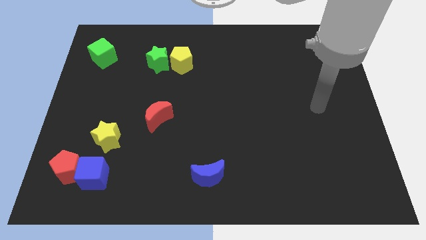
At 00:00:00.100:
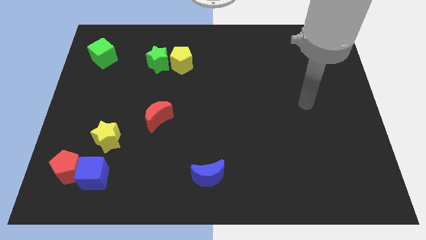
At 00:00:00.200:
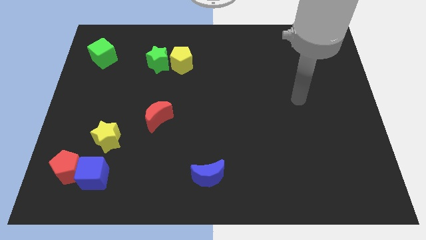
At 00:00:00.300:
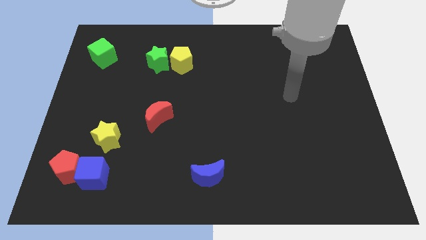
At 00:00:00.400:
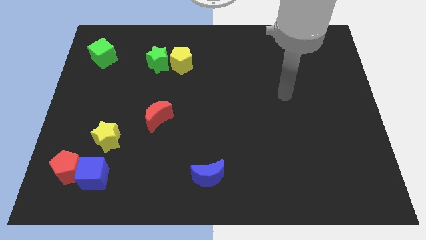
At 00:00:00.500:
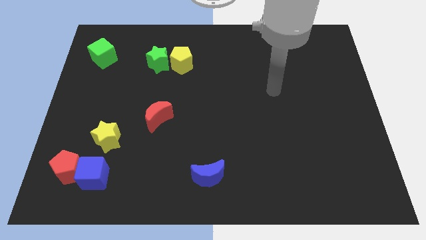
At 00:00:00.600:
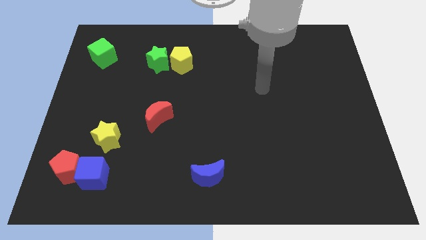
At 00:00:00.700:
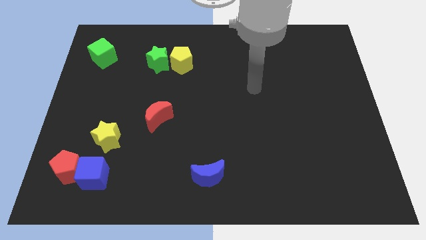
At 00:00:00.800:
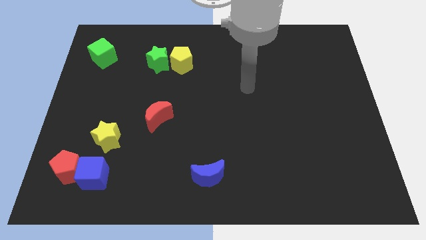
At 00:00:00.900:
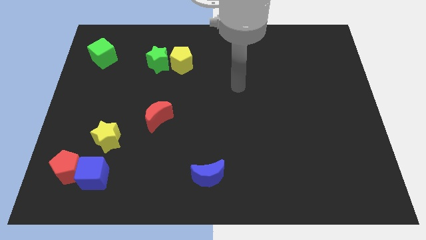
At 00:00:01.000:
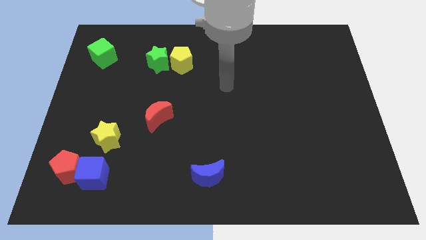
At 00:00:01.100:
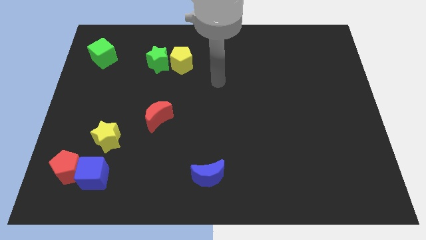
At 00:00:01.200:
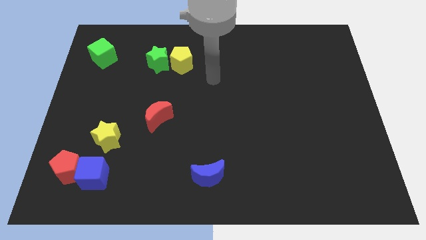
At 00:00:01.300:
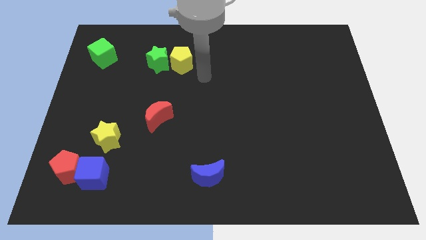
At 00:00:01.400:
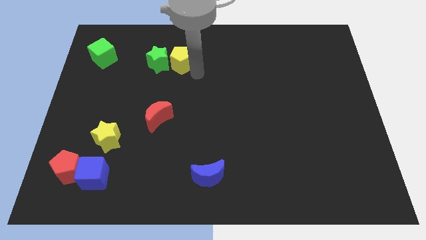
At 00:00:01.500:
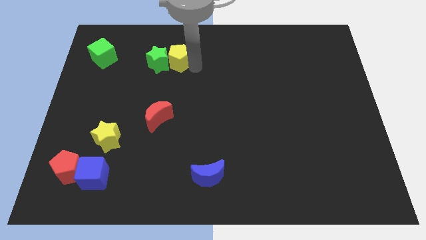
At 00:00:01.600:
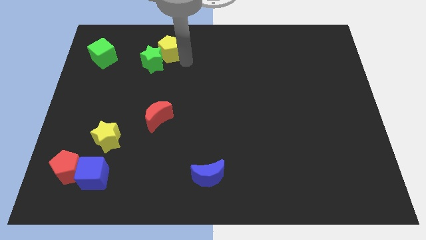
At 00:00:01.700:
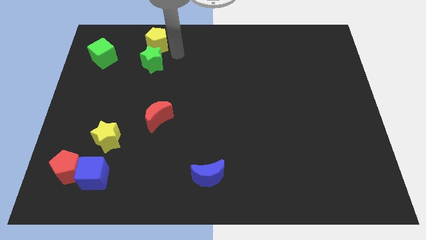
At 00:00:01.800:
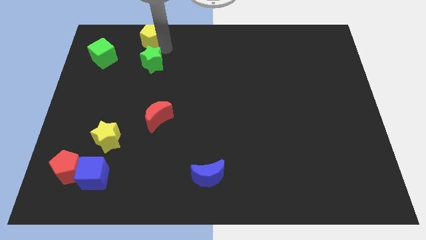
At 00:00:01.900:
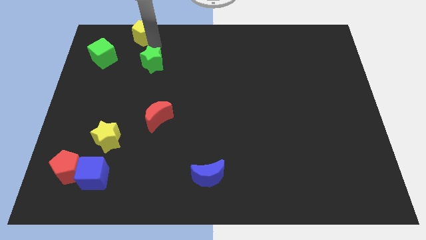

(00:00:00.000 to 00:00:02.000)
move the green star away from the yellow pentagon

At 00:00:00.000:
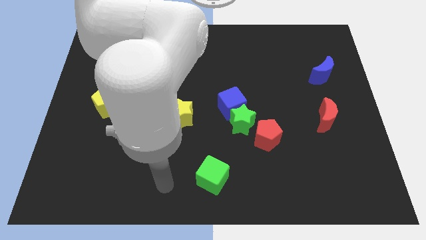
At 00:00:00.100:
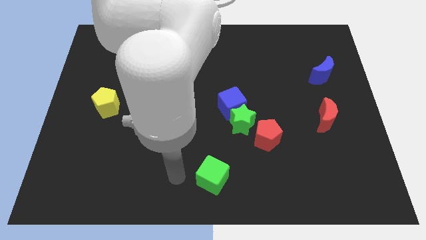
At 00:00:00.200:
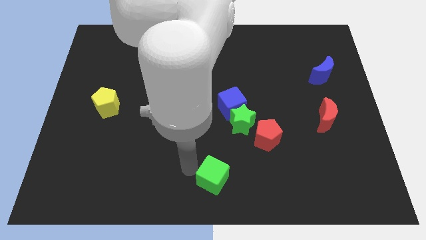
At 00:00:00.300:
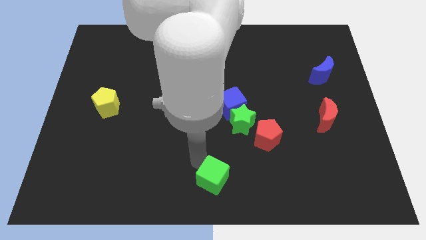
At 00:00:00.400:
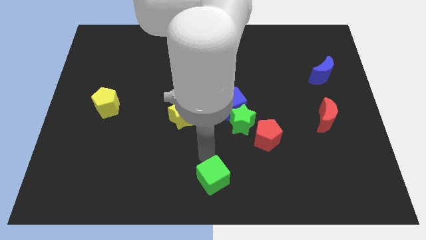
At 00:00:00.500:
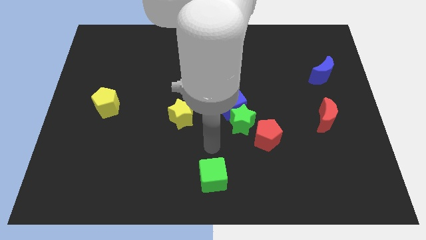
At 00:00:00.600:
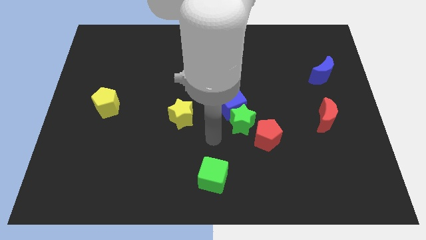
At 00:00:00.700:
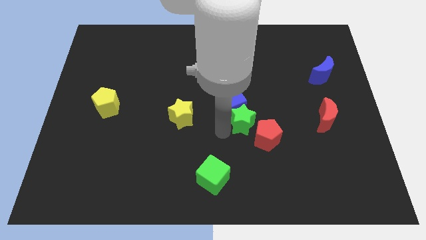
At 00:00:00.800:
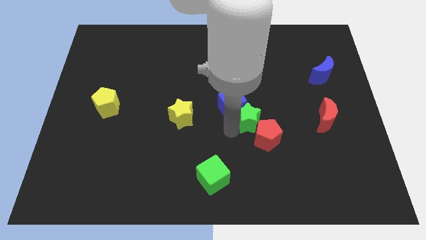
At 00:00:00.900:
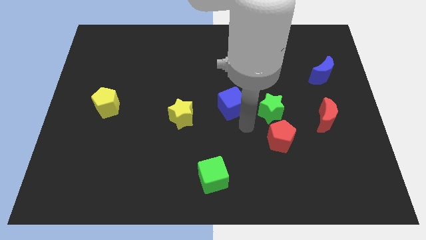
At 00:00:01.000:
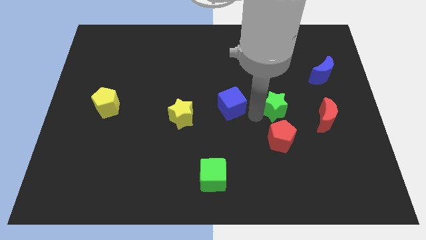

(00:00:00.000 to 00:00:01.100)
pull the blue cube apart from the green star

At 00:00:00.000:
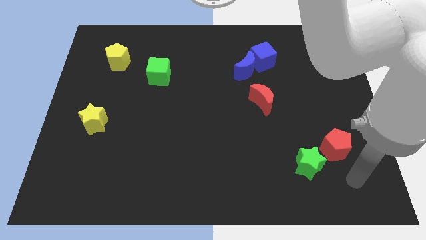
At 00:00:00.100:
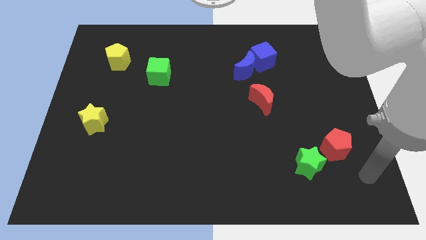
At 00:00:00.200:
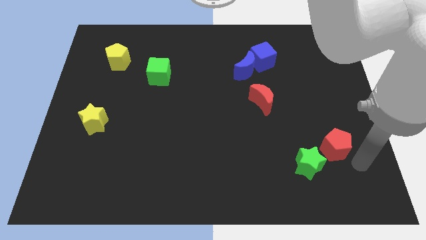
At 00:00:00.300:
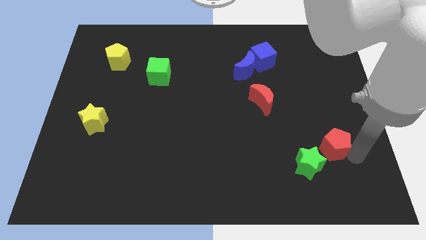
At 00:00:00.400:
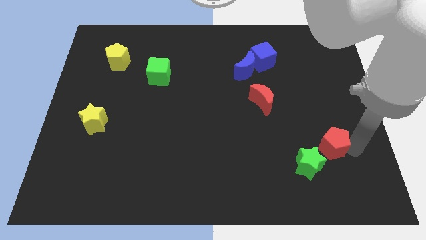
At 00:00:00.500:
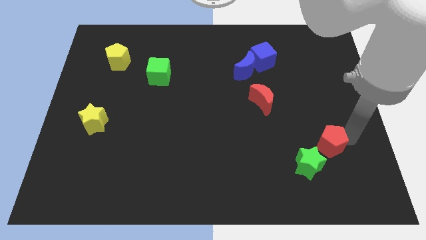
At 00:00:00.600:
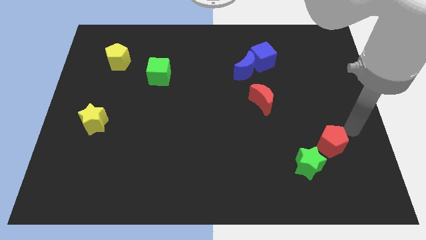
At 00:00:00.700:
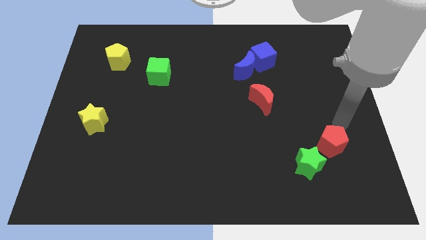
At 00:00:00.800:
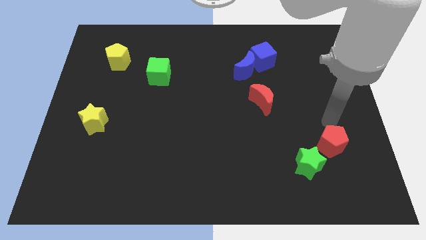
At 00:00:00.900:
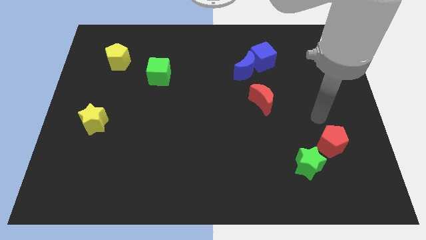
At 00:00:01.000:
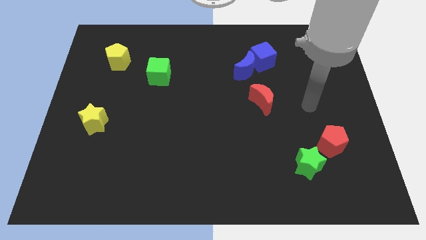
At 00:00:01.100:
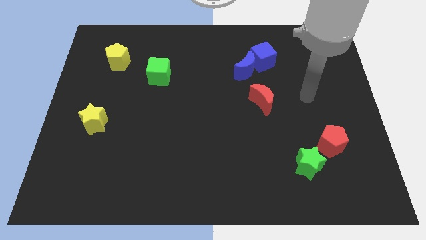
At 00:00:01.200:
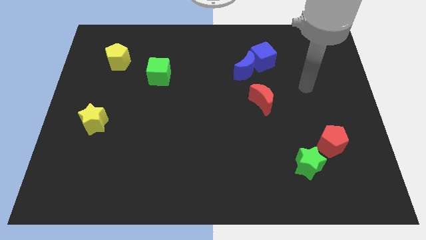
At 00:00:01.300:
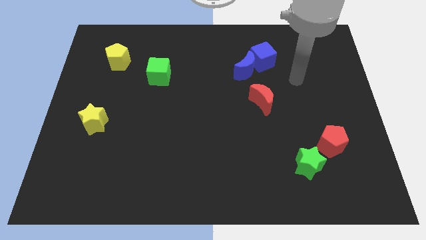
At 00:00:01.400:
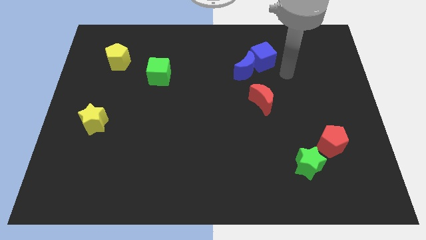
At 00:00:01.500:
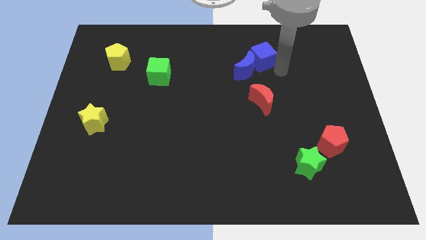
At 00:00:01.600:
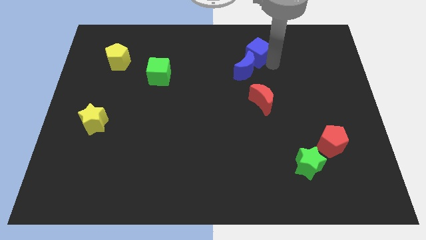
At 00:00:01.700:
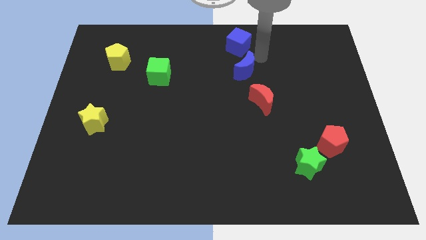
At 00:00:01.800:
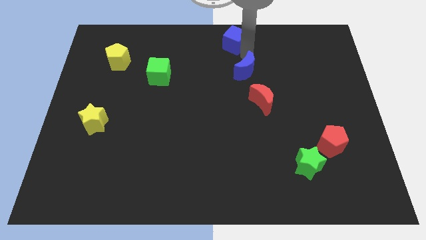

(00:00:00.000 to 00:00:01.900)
move the blue moon away from the blue cube

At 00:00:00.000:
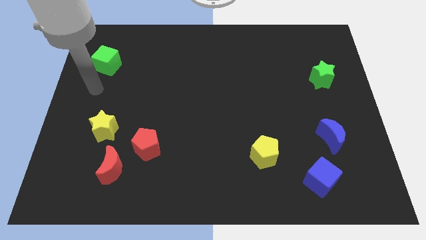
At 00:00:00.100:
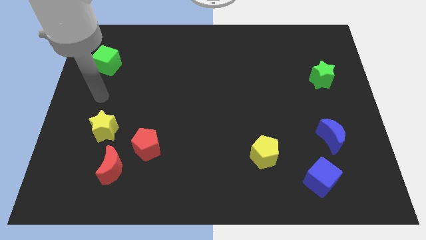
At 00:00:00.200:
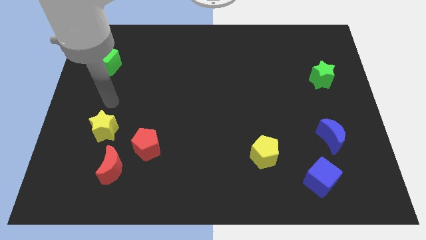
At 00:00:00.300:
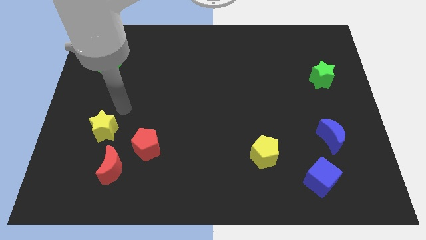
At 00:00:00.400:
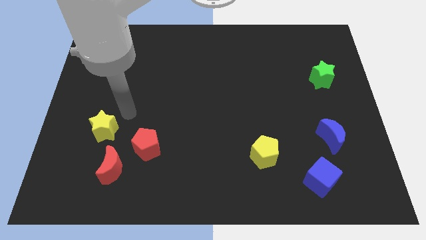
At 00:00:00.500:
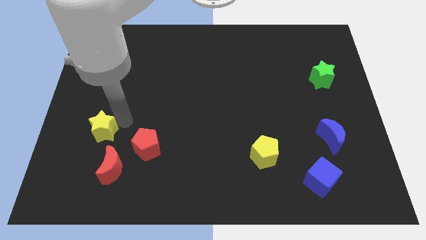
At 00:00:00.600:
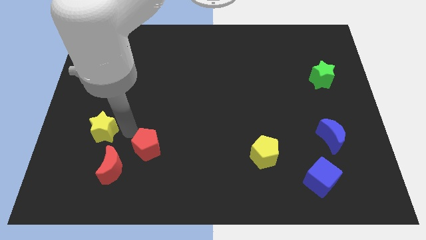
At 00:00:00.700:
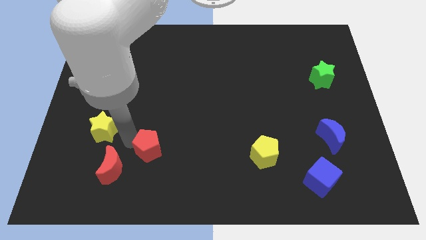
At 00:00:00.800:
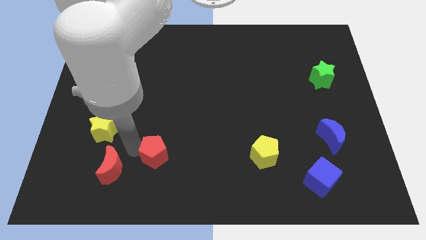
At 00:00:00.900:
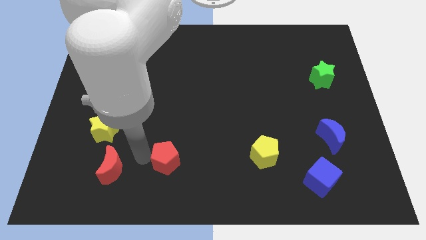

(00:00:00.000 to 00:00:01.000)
separate the red moon from the red pentagon

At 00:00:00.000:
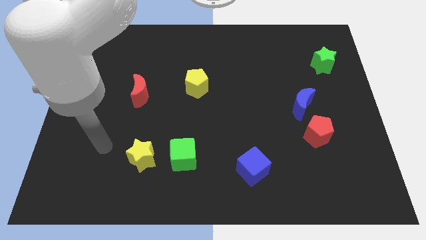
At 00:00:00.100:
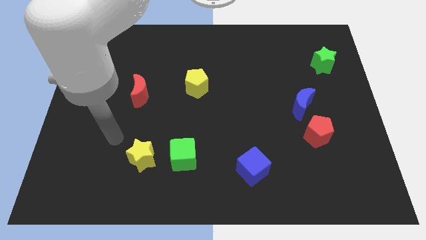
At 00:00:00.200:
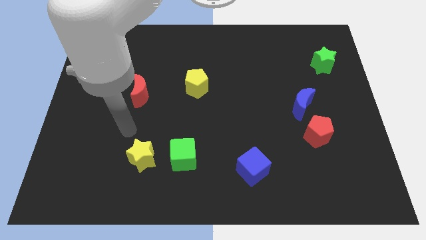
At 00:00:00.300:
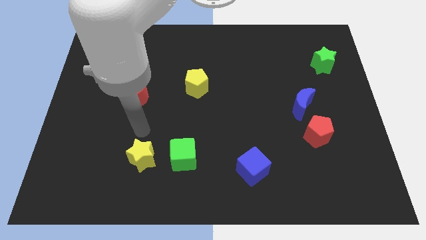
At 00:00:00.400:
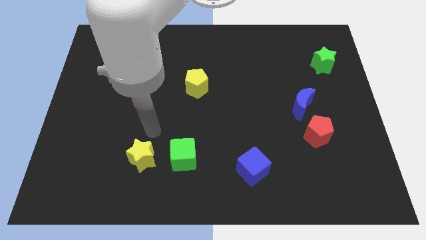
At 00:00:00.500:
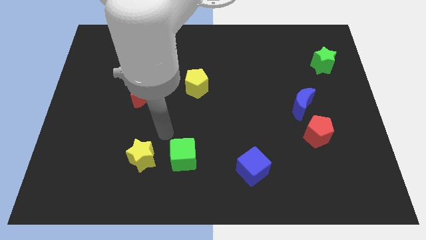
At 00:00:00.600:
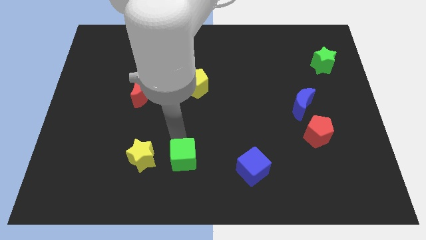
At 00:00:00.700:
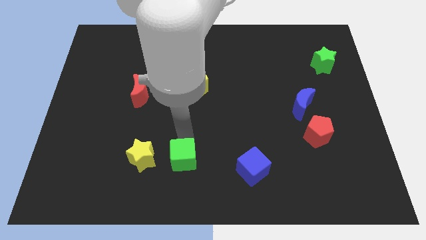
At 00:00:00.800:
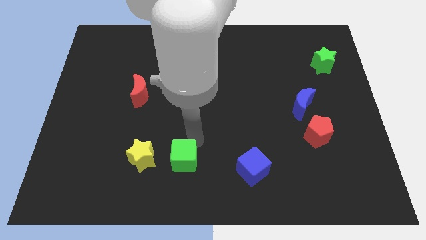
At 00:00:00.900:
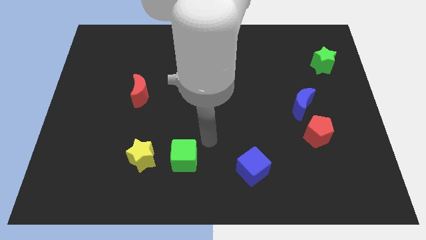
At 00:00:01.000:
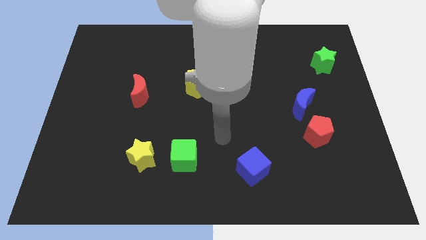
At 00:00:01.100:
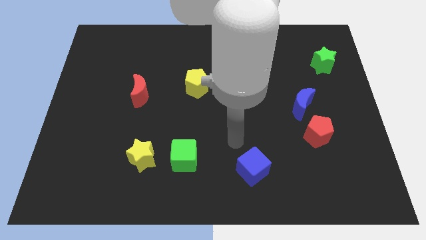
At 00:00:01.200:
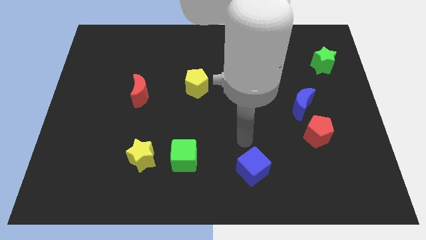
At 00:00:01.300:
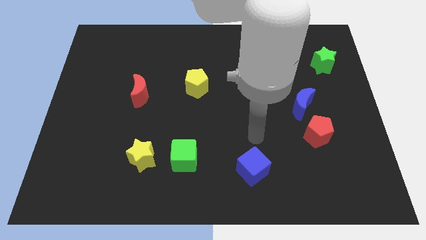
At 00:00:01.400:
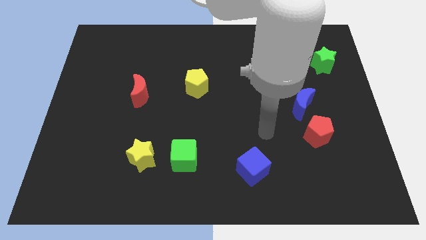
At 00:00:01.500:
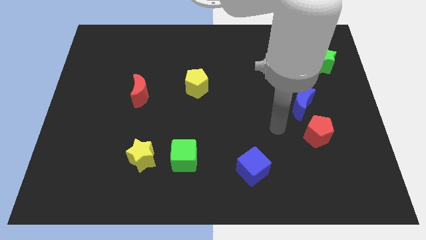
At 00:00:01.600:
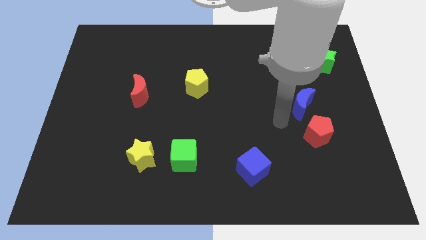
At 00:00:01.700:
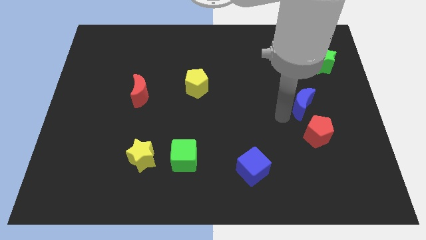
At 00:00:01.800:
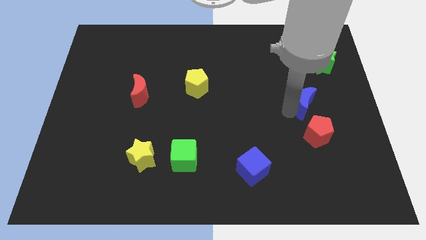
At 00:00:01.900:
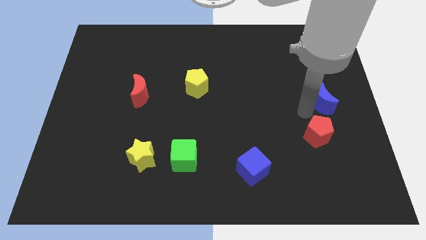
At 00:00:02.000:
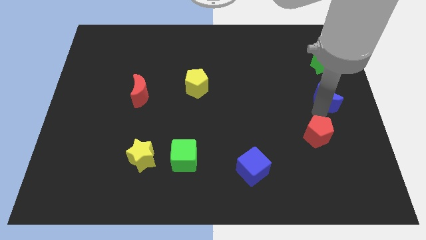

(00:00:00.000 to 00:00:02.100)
pull the red pentagon apart from the blue moon

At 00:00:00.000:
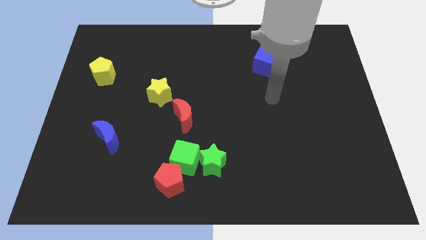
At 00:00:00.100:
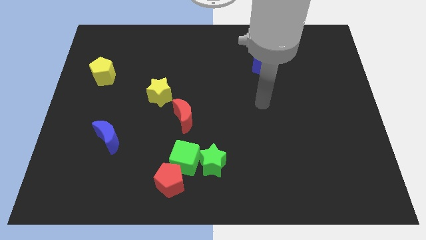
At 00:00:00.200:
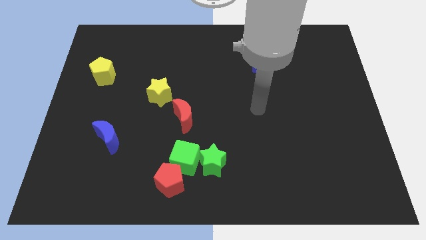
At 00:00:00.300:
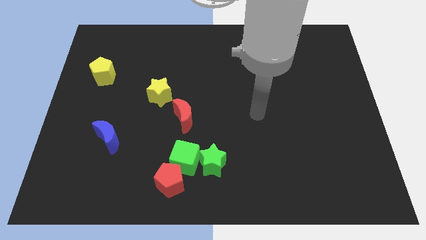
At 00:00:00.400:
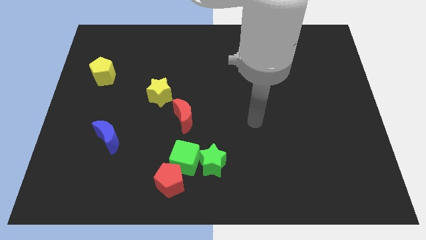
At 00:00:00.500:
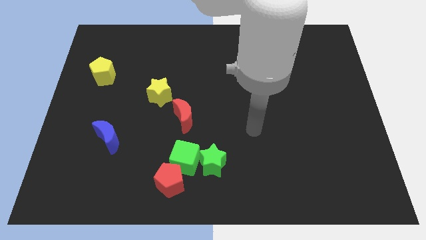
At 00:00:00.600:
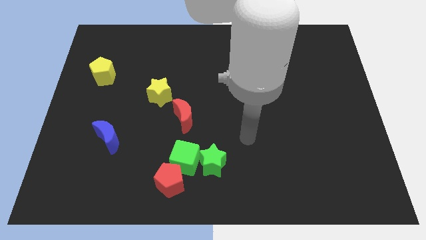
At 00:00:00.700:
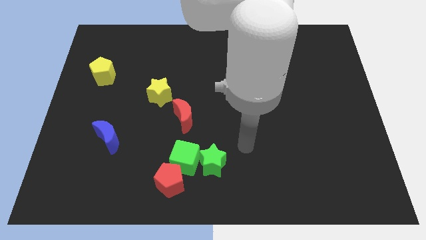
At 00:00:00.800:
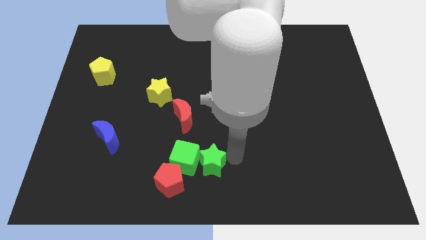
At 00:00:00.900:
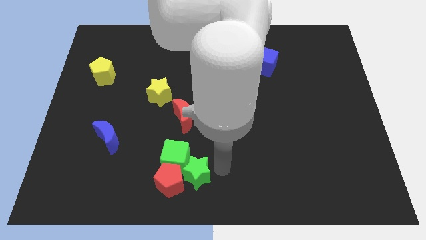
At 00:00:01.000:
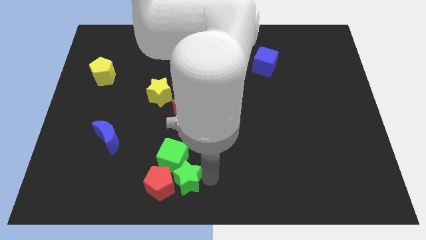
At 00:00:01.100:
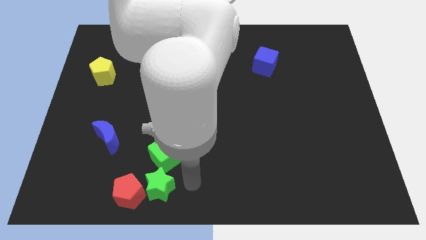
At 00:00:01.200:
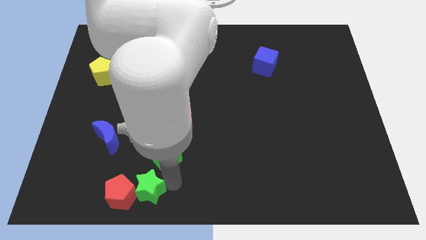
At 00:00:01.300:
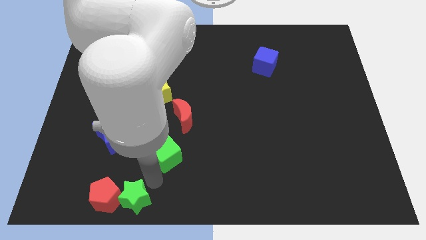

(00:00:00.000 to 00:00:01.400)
pull the green cube apart from the red pentagon and green star
